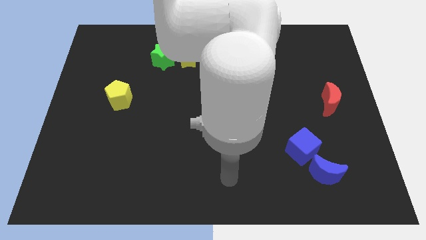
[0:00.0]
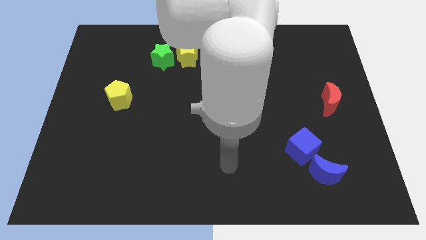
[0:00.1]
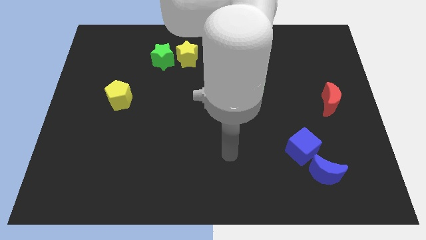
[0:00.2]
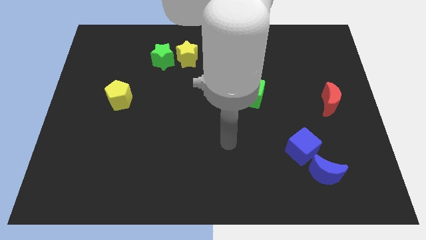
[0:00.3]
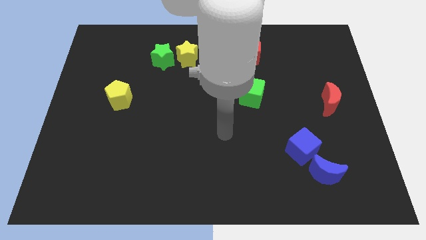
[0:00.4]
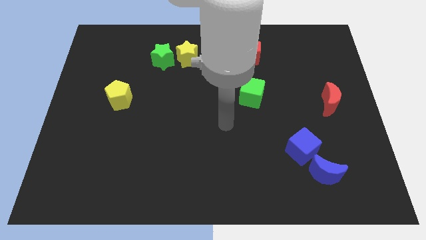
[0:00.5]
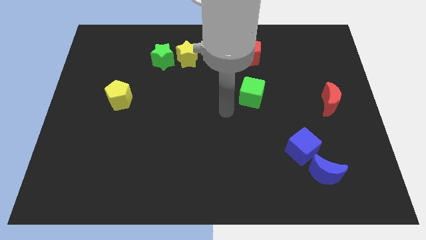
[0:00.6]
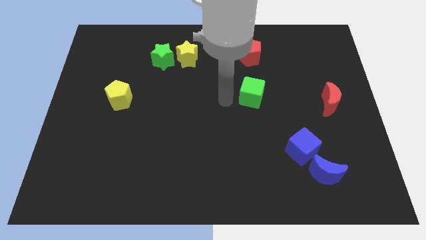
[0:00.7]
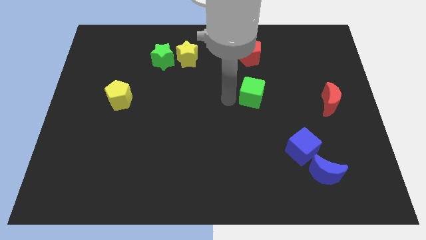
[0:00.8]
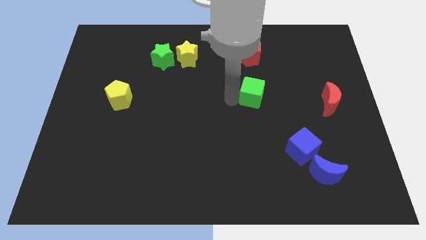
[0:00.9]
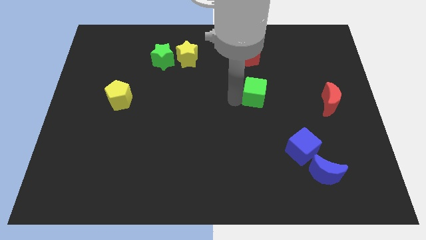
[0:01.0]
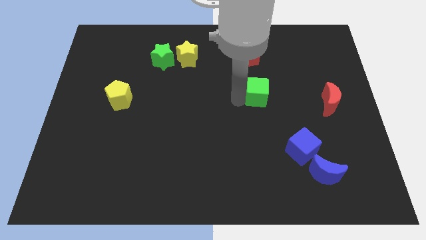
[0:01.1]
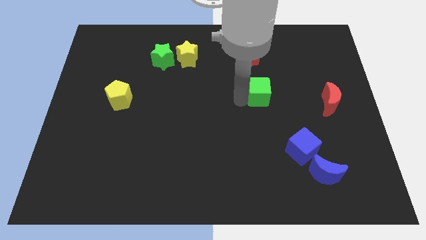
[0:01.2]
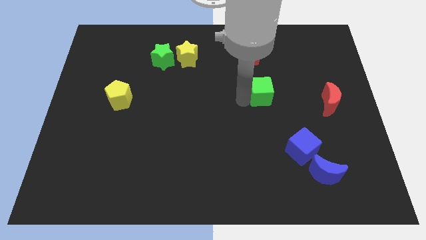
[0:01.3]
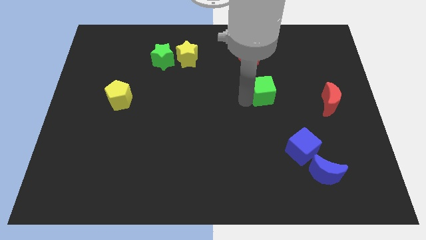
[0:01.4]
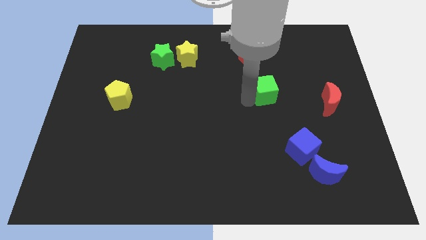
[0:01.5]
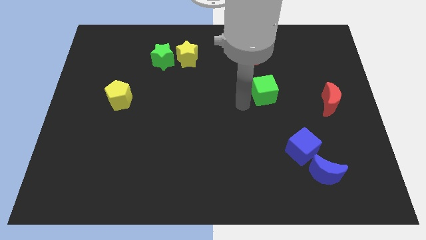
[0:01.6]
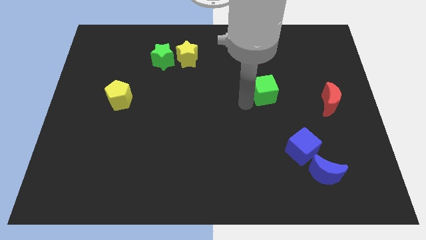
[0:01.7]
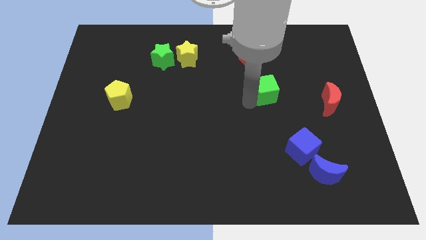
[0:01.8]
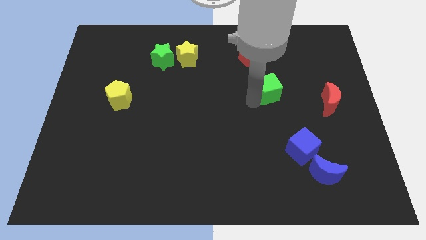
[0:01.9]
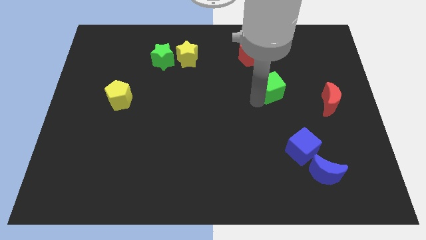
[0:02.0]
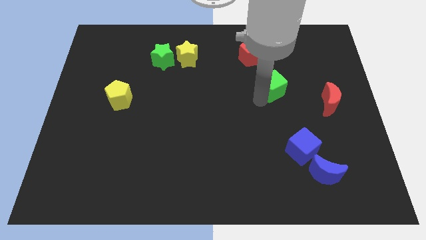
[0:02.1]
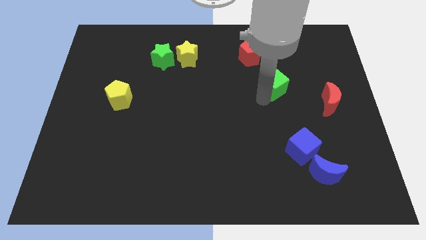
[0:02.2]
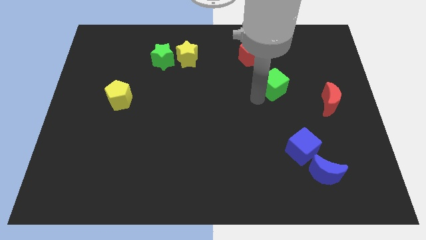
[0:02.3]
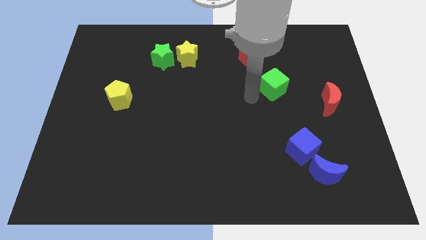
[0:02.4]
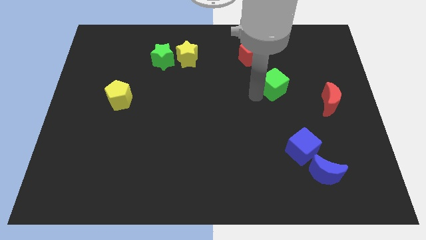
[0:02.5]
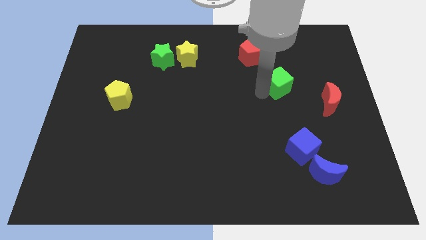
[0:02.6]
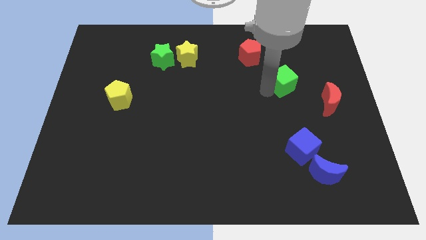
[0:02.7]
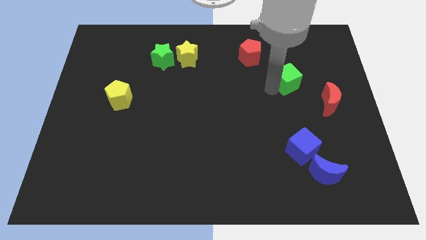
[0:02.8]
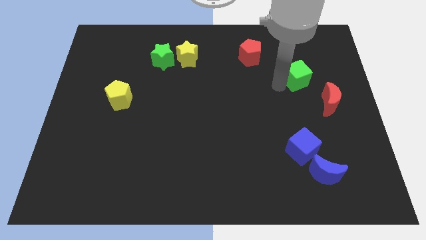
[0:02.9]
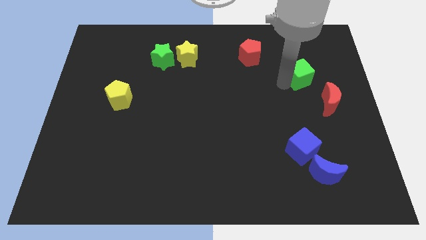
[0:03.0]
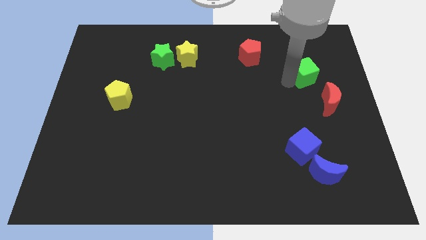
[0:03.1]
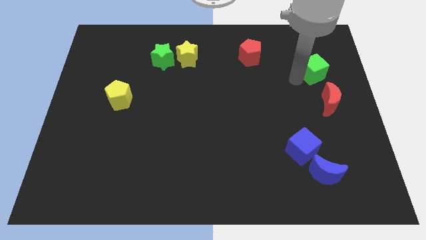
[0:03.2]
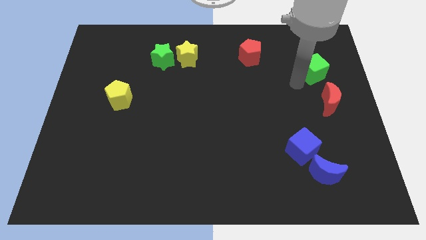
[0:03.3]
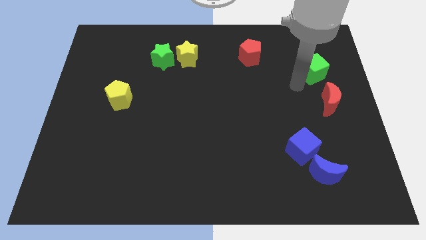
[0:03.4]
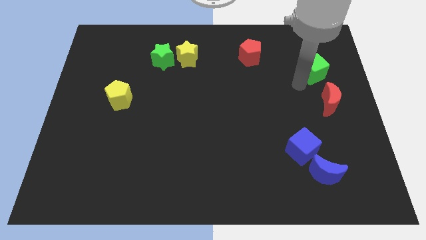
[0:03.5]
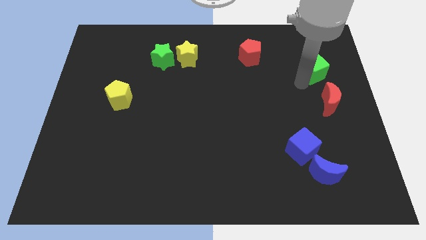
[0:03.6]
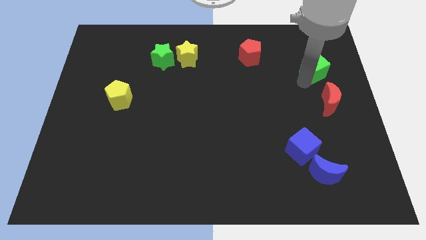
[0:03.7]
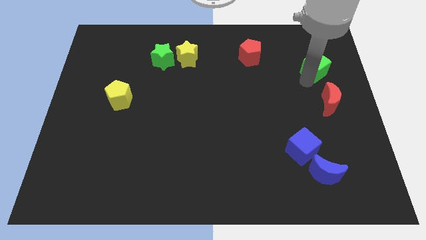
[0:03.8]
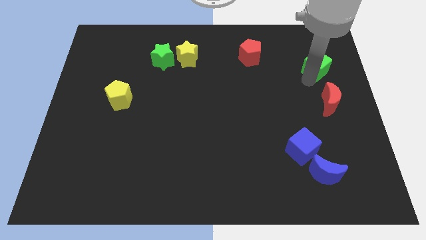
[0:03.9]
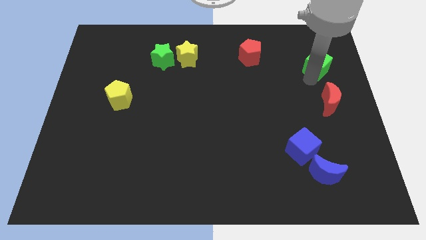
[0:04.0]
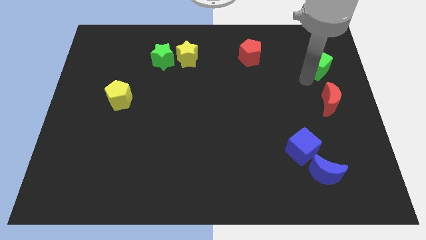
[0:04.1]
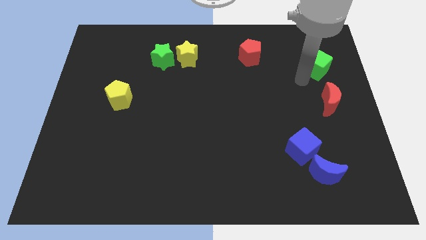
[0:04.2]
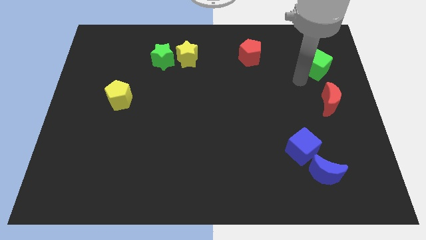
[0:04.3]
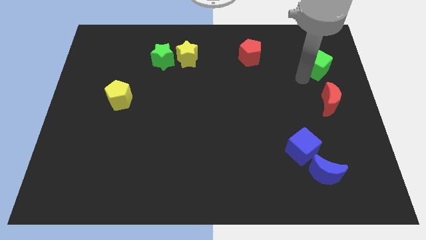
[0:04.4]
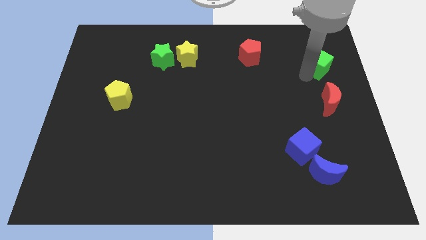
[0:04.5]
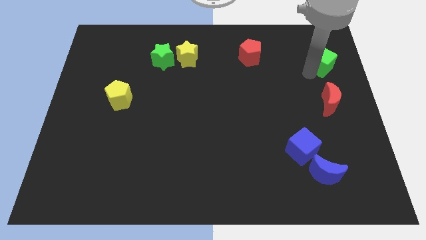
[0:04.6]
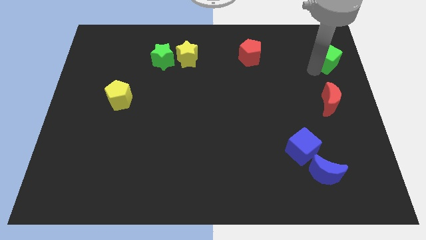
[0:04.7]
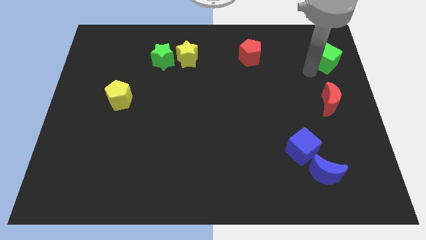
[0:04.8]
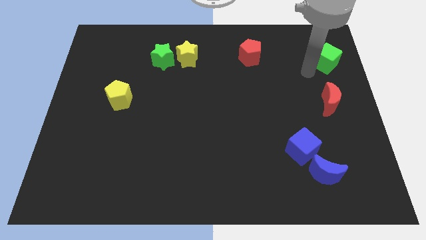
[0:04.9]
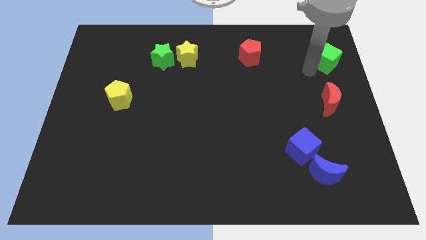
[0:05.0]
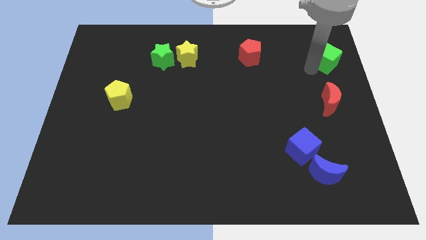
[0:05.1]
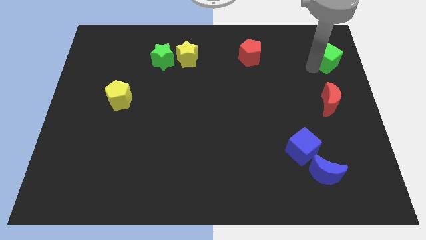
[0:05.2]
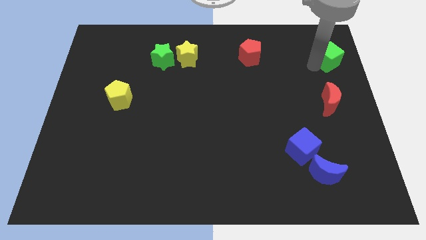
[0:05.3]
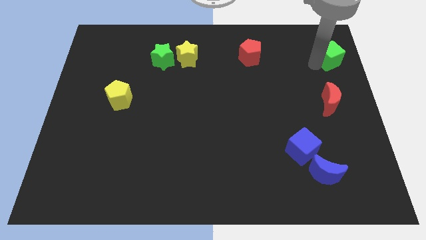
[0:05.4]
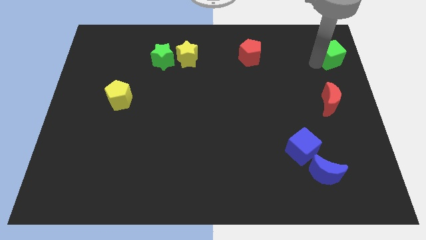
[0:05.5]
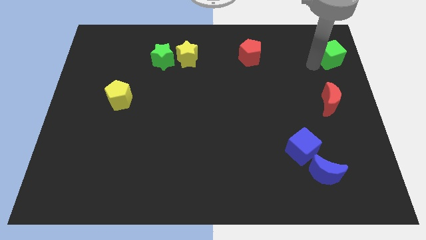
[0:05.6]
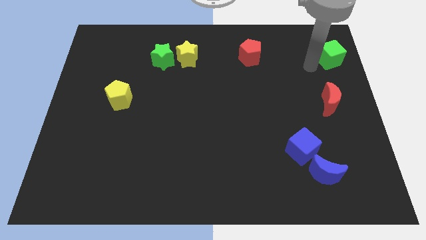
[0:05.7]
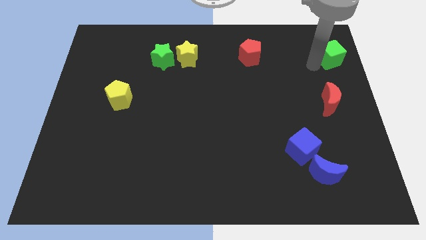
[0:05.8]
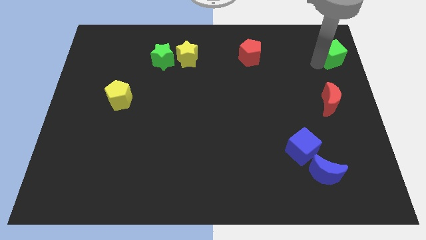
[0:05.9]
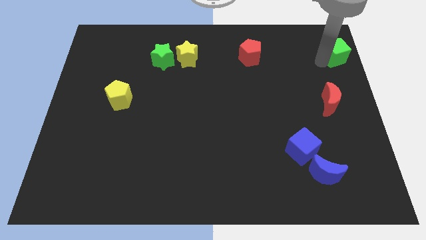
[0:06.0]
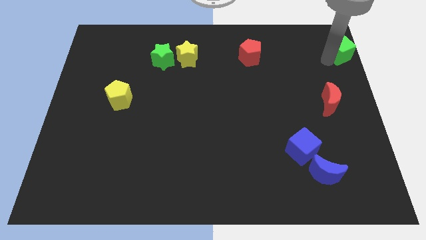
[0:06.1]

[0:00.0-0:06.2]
move the green cube to the top right
